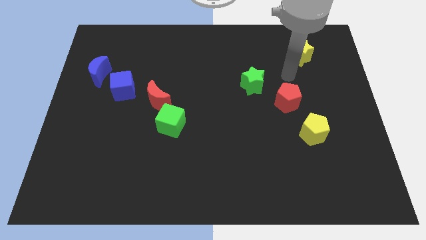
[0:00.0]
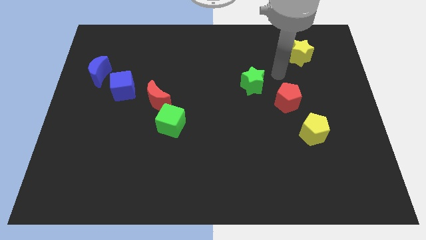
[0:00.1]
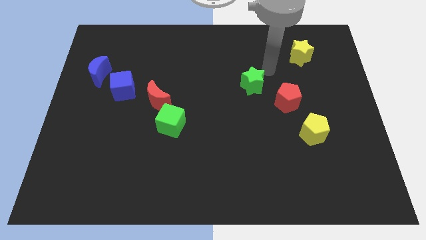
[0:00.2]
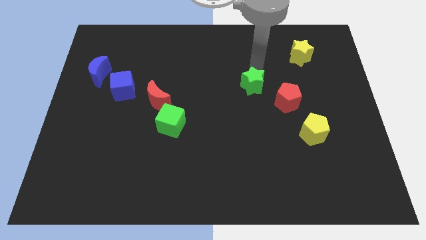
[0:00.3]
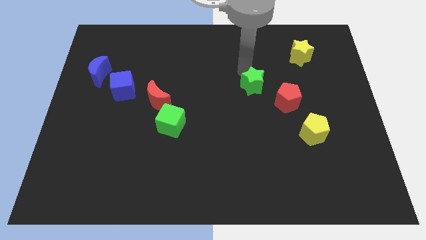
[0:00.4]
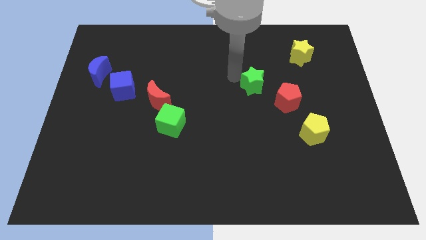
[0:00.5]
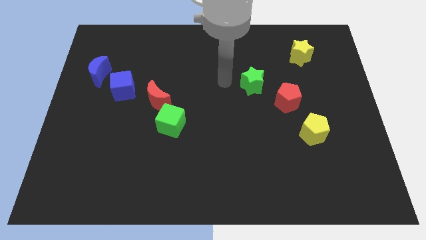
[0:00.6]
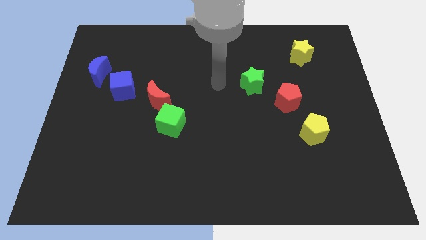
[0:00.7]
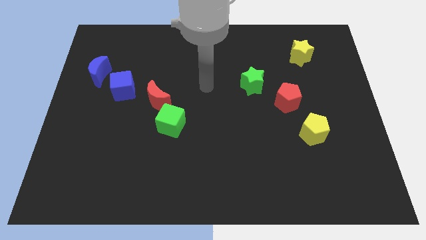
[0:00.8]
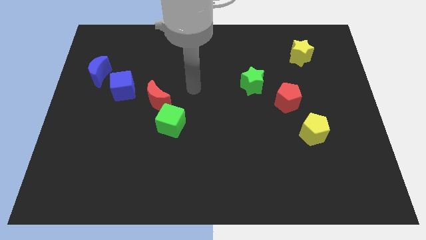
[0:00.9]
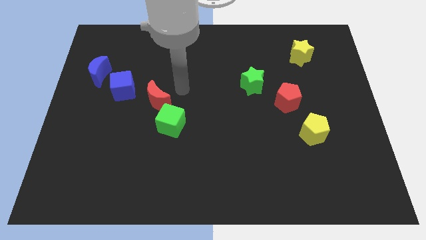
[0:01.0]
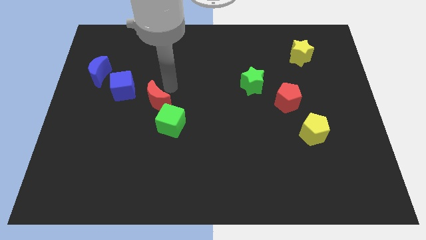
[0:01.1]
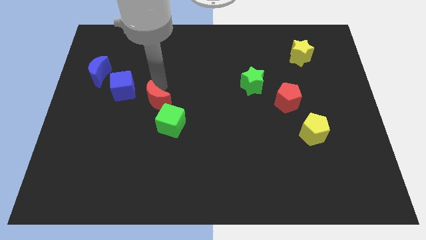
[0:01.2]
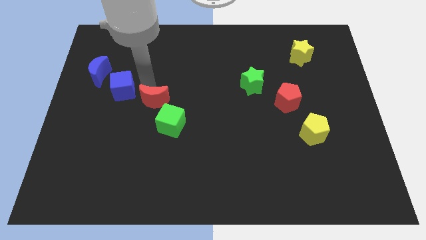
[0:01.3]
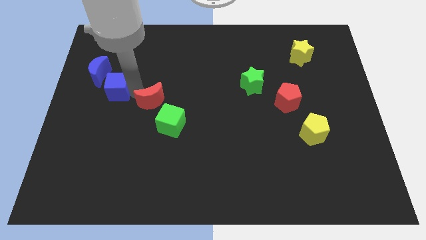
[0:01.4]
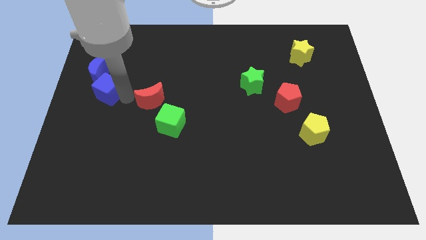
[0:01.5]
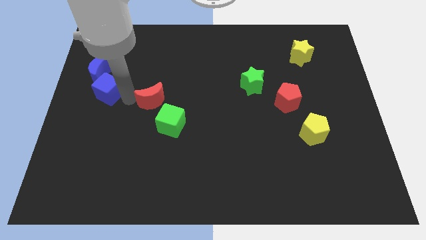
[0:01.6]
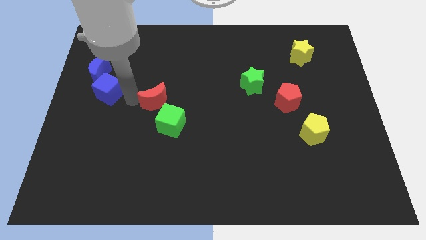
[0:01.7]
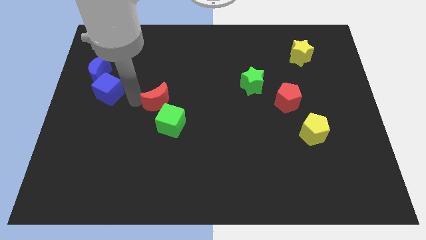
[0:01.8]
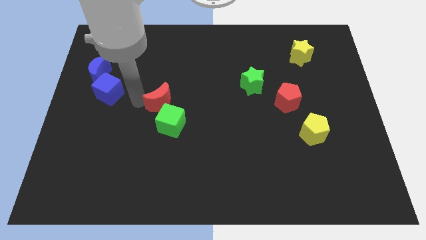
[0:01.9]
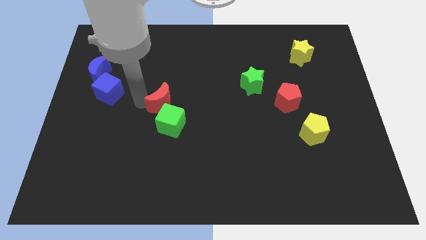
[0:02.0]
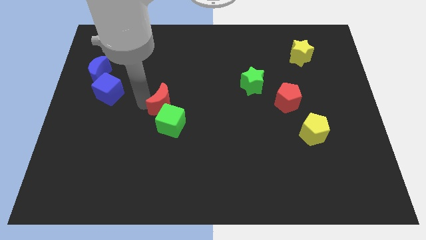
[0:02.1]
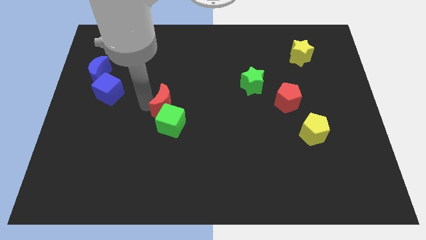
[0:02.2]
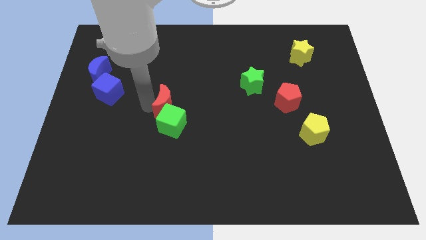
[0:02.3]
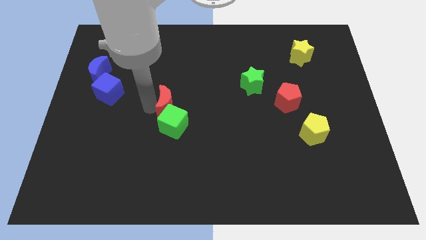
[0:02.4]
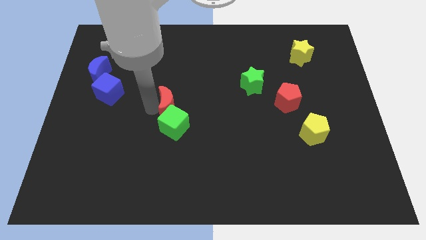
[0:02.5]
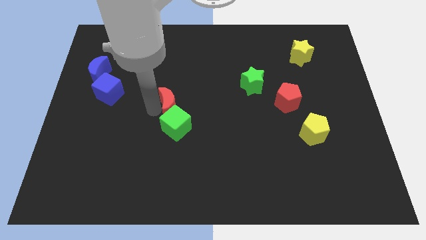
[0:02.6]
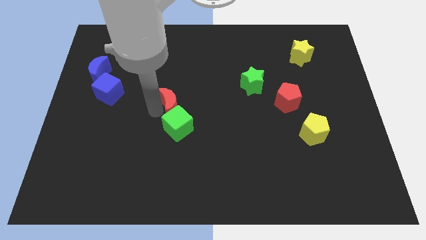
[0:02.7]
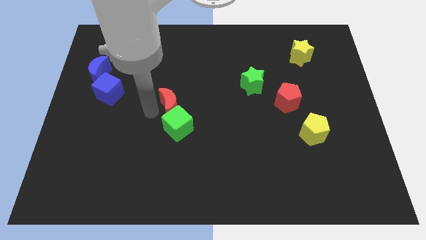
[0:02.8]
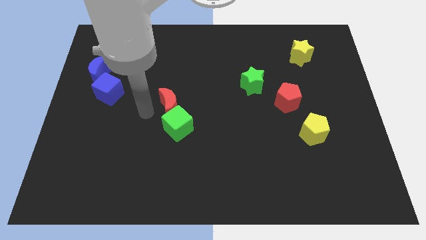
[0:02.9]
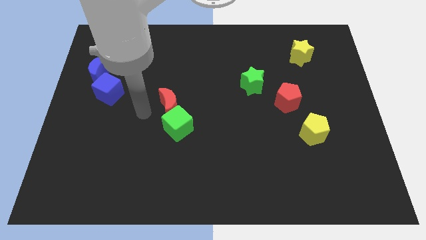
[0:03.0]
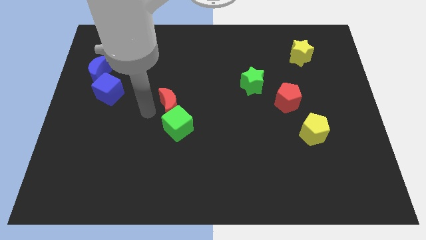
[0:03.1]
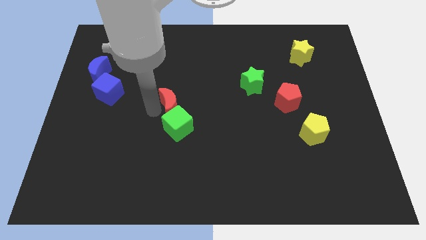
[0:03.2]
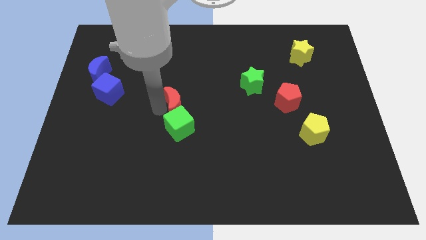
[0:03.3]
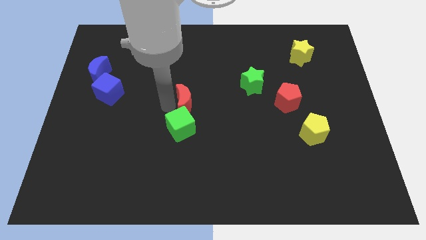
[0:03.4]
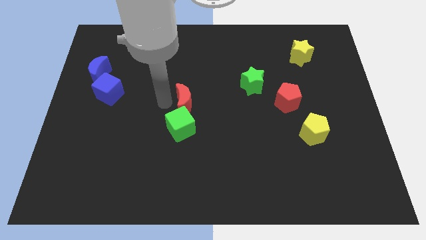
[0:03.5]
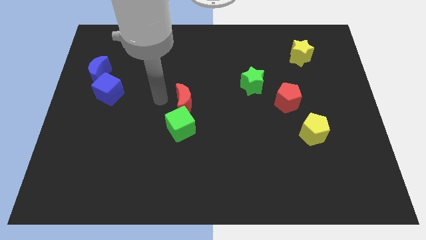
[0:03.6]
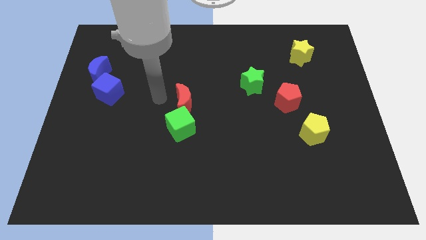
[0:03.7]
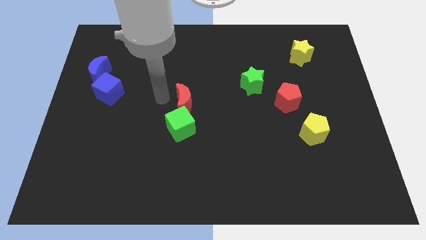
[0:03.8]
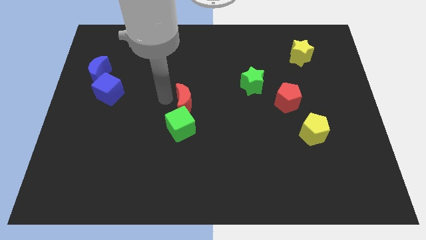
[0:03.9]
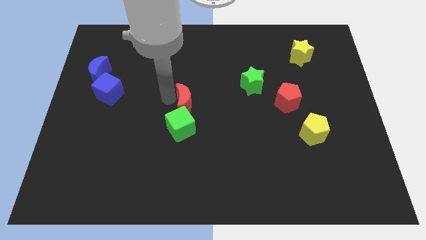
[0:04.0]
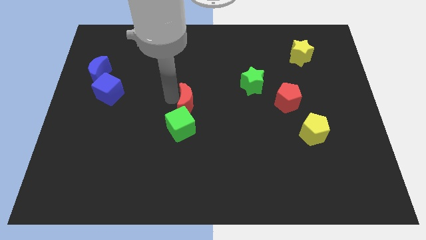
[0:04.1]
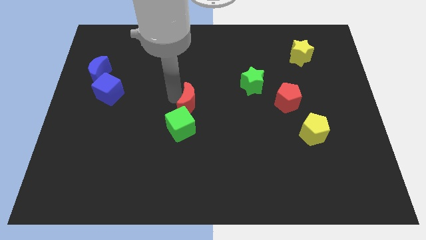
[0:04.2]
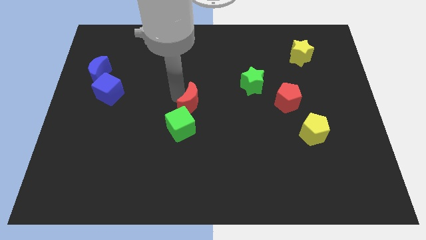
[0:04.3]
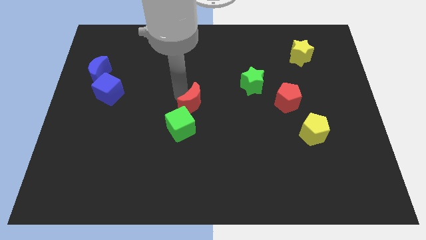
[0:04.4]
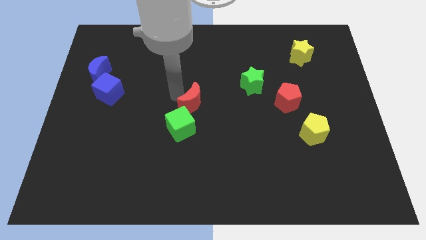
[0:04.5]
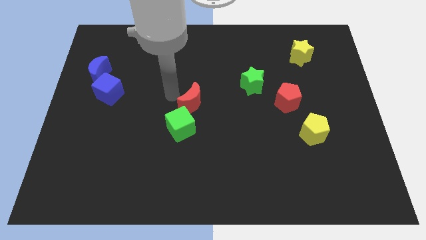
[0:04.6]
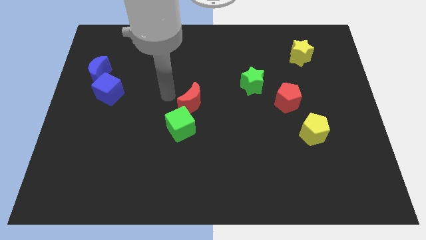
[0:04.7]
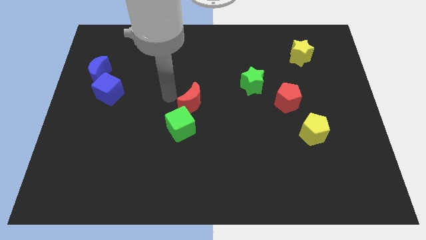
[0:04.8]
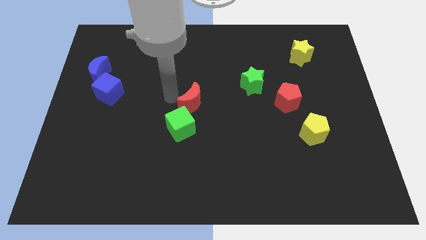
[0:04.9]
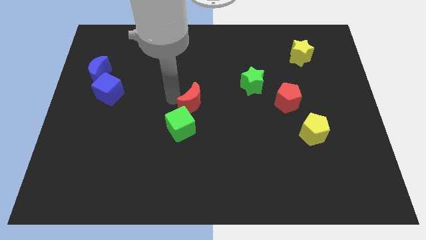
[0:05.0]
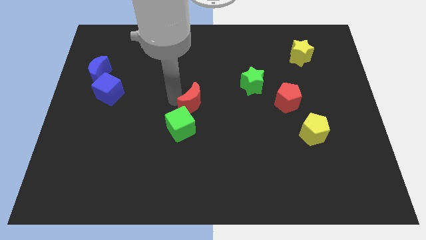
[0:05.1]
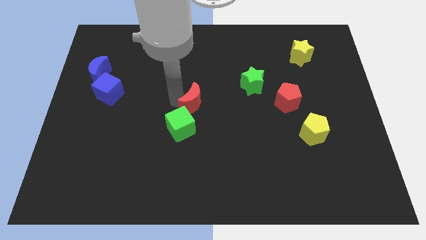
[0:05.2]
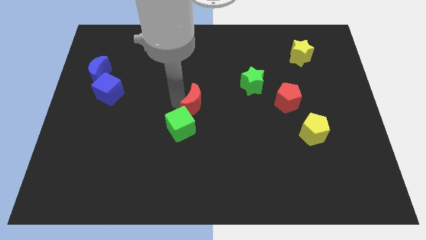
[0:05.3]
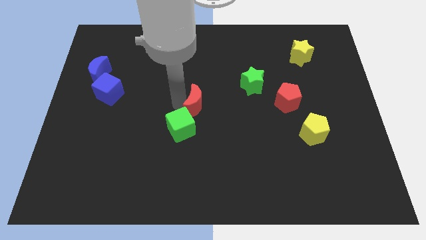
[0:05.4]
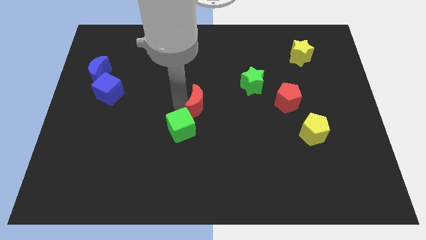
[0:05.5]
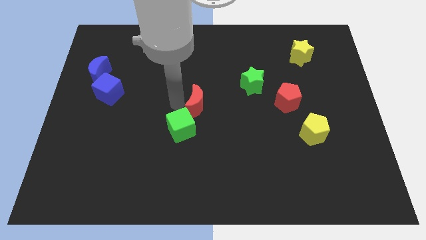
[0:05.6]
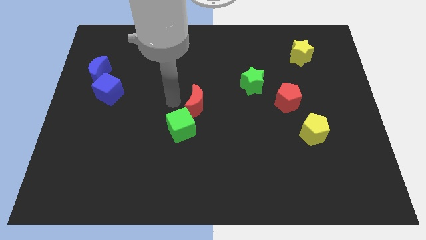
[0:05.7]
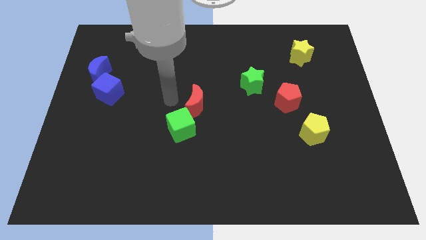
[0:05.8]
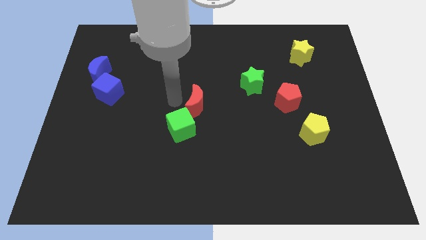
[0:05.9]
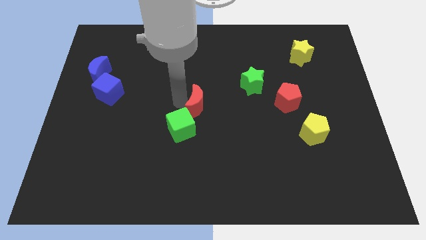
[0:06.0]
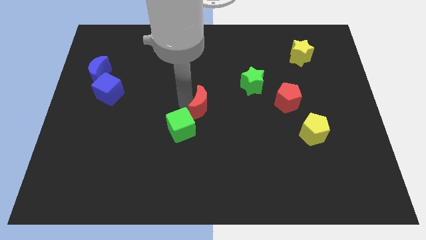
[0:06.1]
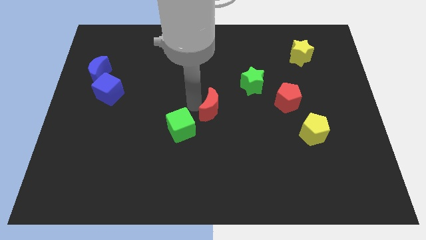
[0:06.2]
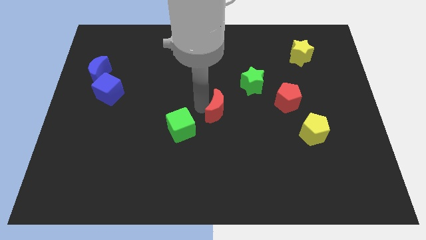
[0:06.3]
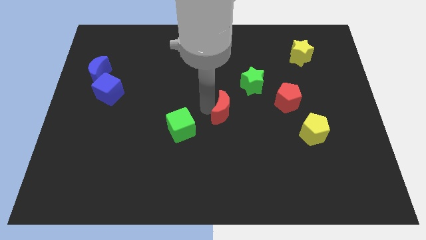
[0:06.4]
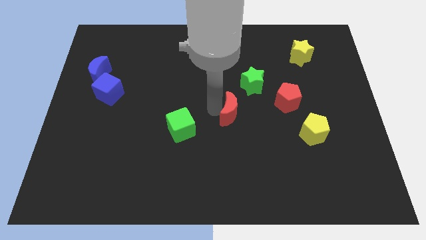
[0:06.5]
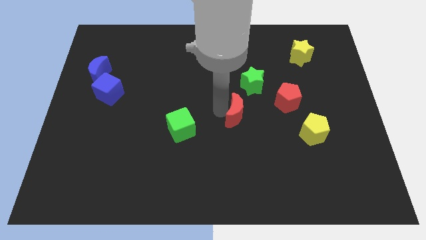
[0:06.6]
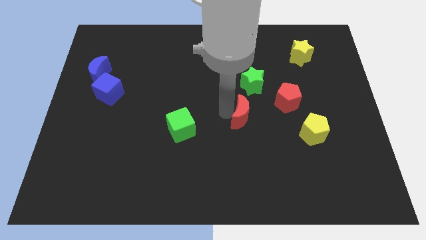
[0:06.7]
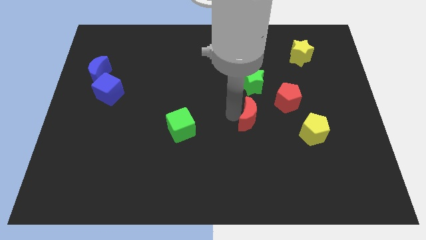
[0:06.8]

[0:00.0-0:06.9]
push the red moon to the bottom left side of the red pentagon
